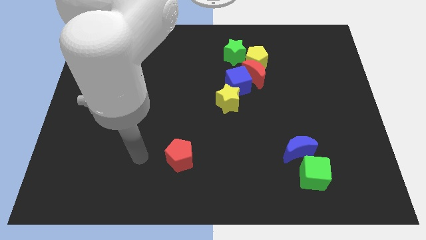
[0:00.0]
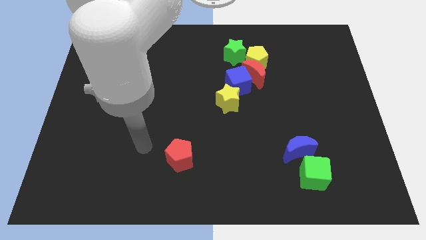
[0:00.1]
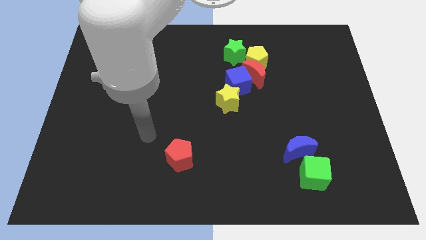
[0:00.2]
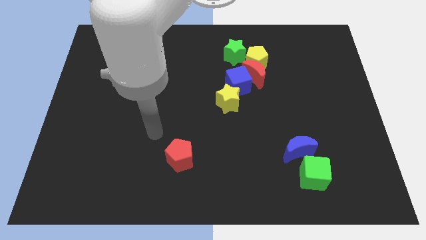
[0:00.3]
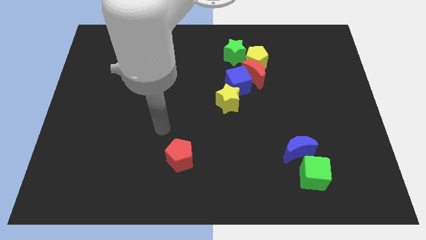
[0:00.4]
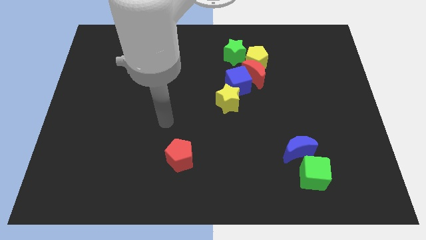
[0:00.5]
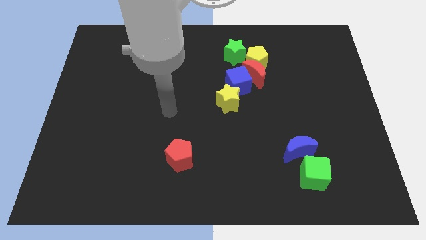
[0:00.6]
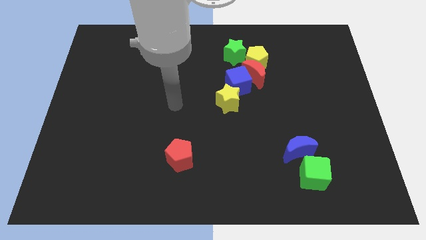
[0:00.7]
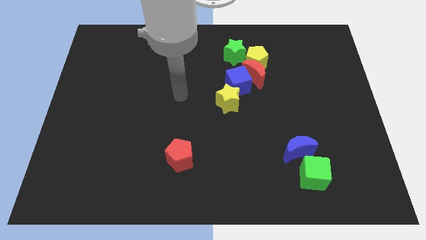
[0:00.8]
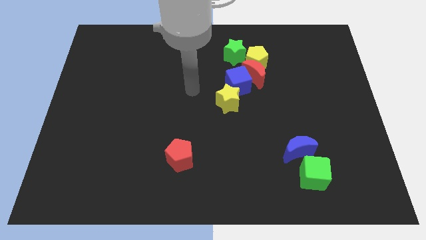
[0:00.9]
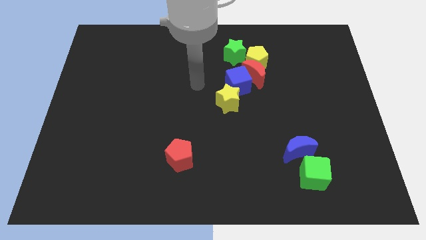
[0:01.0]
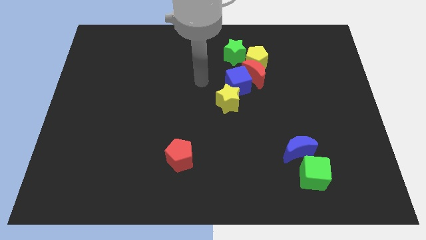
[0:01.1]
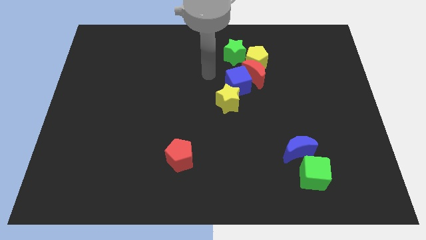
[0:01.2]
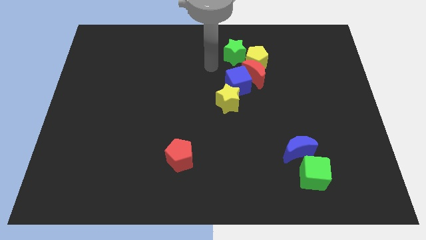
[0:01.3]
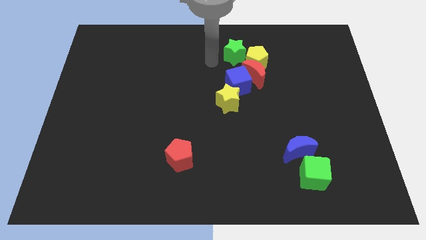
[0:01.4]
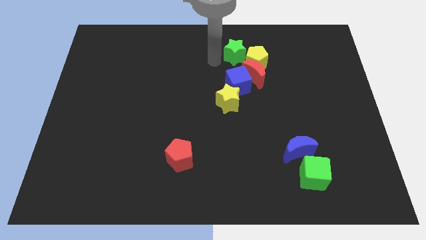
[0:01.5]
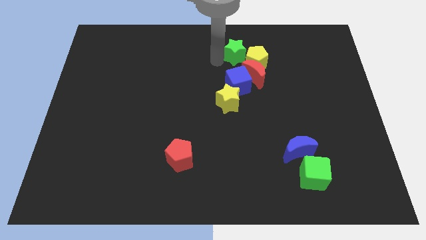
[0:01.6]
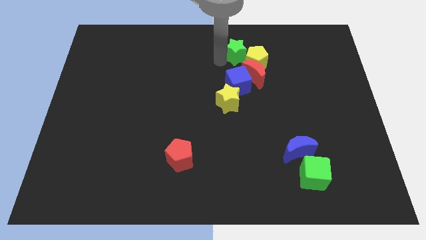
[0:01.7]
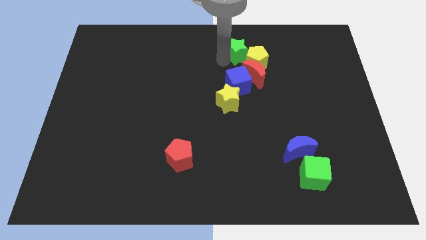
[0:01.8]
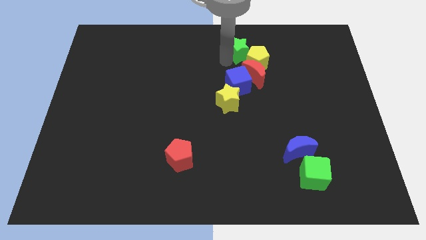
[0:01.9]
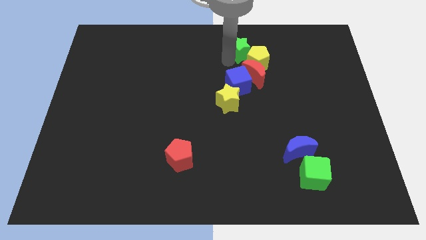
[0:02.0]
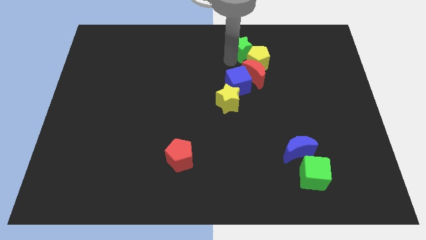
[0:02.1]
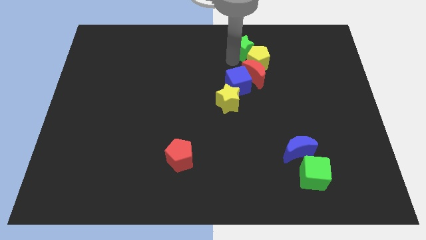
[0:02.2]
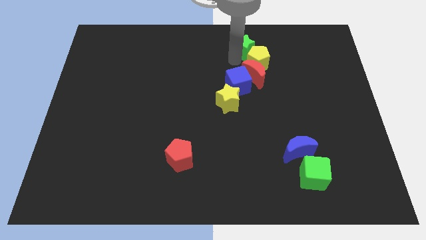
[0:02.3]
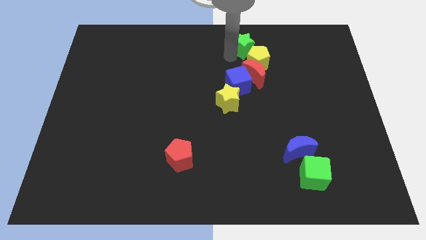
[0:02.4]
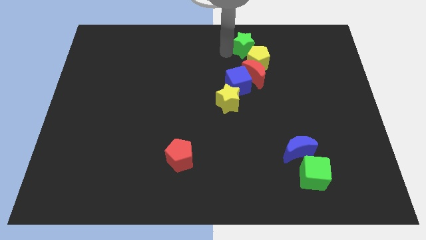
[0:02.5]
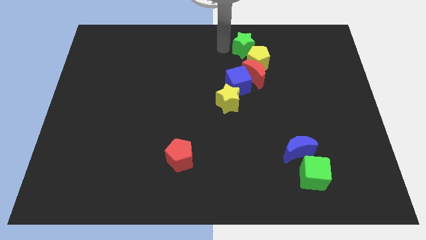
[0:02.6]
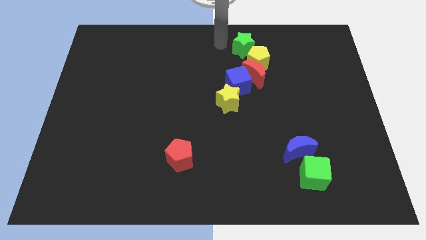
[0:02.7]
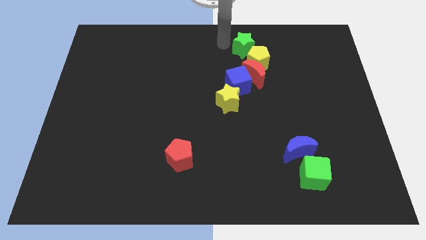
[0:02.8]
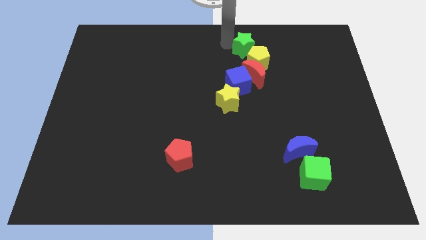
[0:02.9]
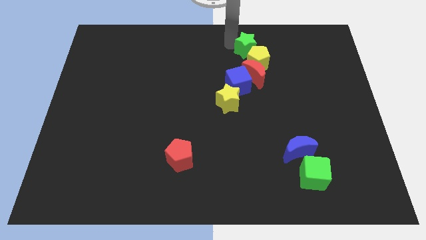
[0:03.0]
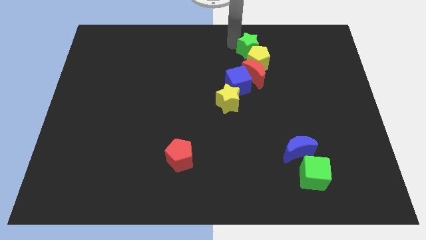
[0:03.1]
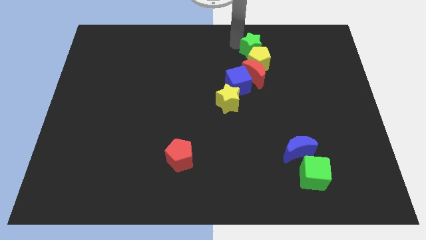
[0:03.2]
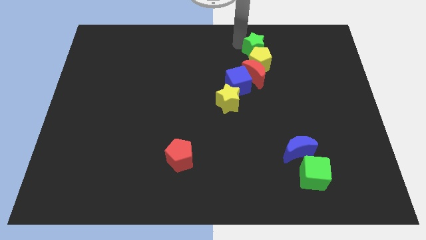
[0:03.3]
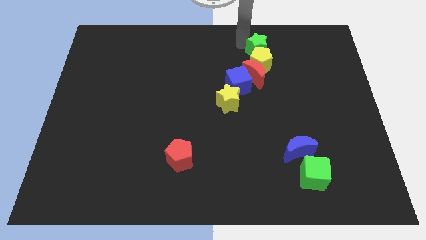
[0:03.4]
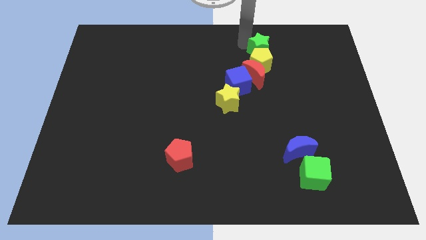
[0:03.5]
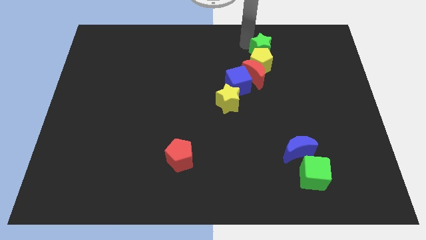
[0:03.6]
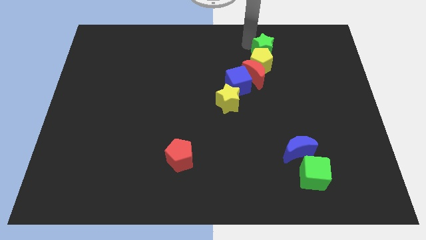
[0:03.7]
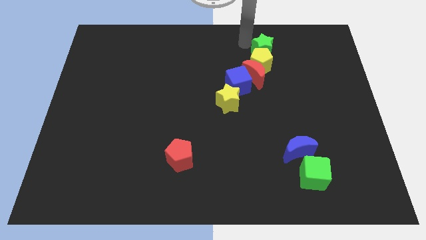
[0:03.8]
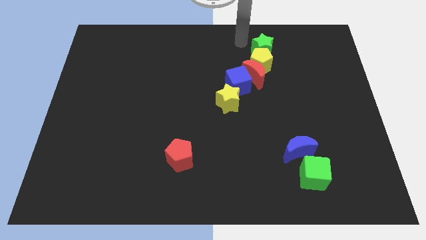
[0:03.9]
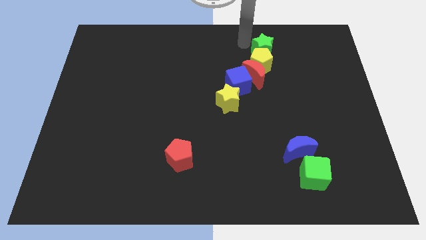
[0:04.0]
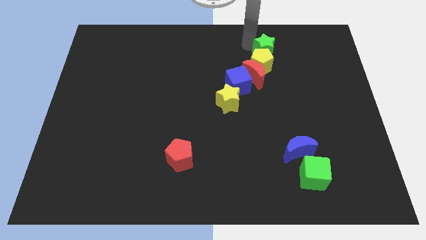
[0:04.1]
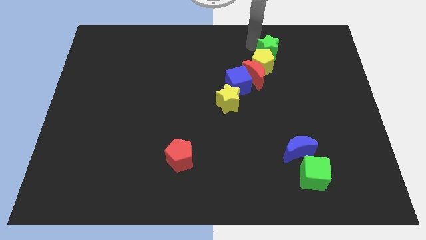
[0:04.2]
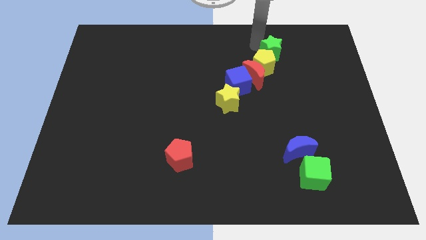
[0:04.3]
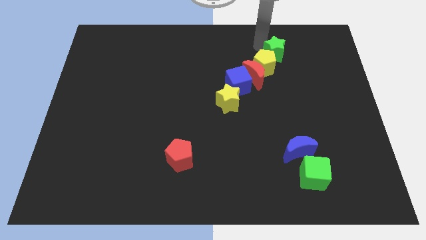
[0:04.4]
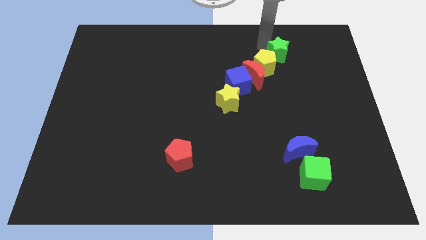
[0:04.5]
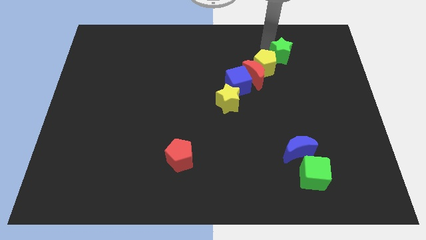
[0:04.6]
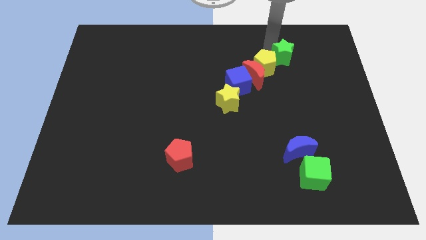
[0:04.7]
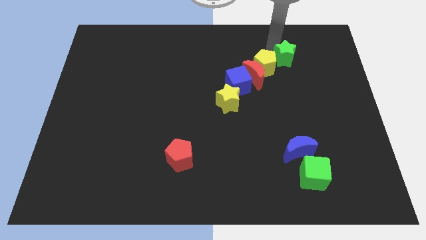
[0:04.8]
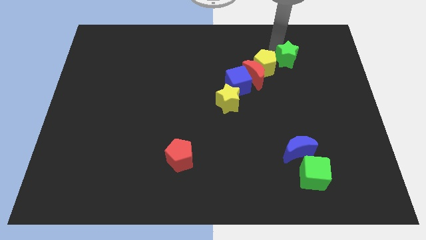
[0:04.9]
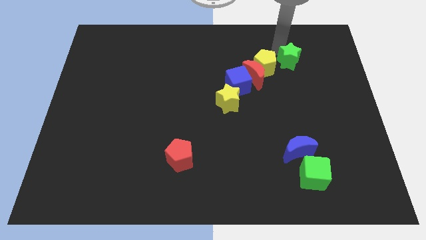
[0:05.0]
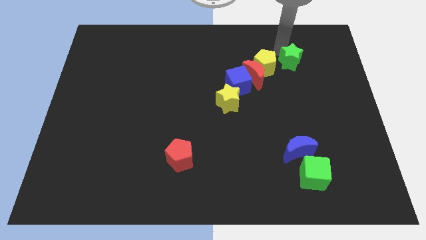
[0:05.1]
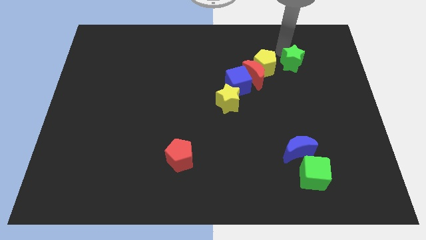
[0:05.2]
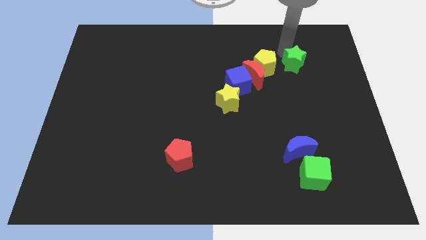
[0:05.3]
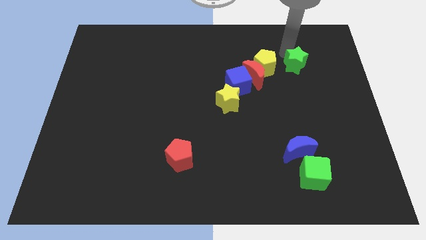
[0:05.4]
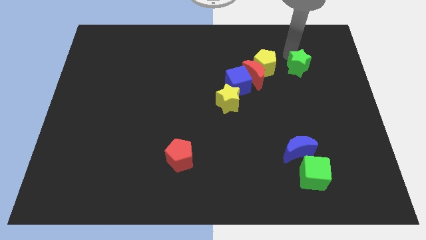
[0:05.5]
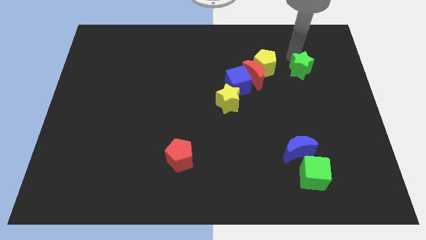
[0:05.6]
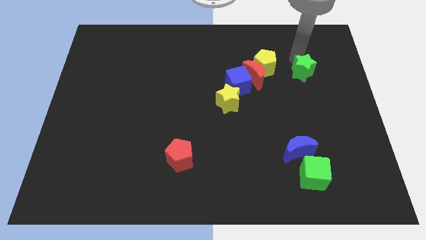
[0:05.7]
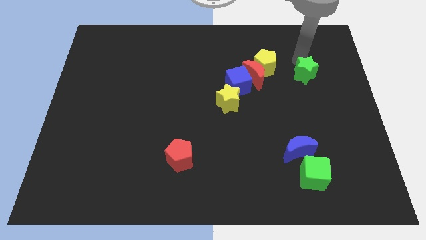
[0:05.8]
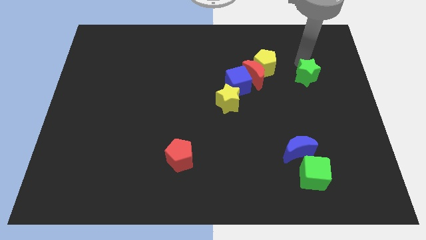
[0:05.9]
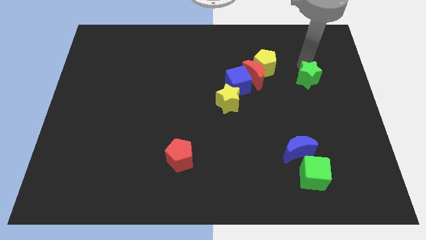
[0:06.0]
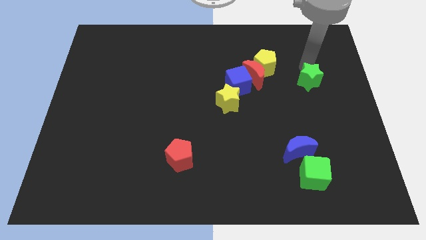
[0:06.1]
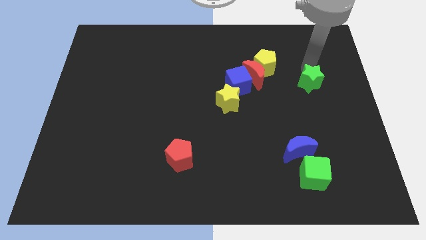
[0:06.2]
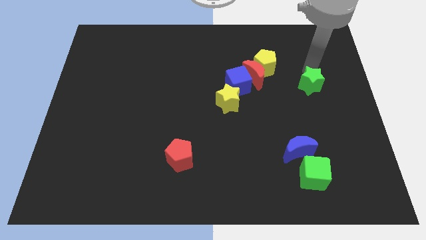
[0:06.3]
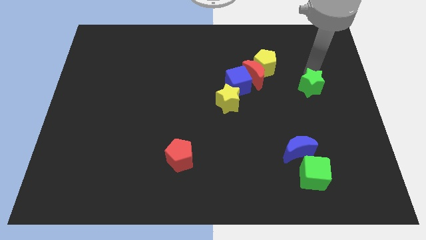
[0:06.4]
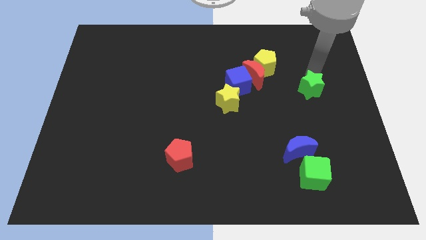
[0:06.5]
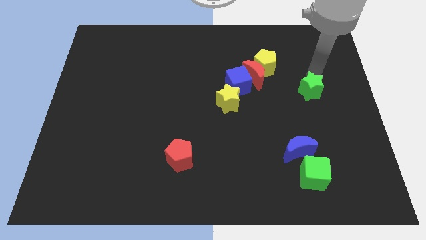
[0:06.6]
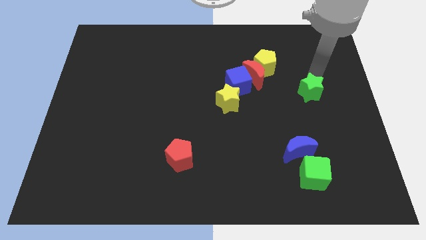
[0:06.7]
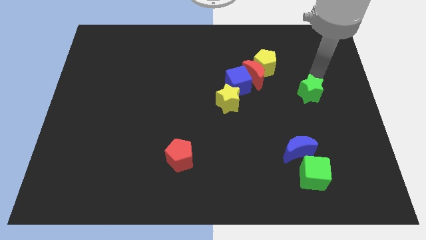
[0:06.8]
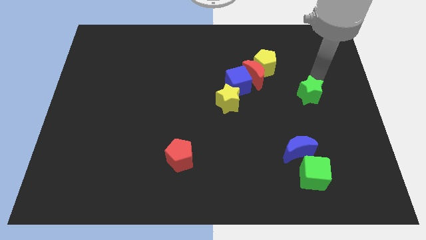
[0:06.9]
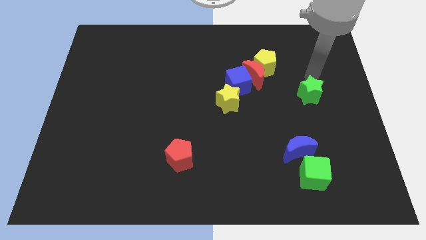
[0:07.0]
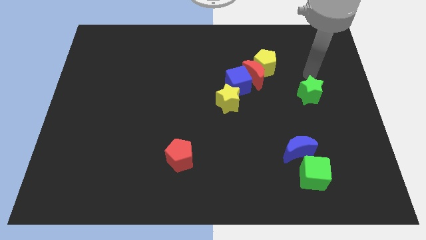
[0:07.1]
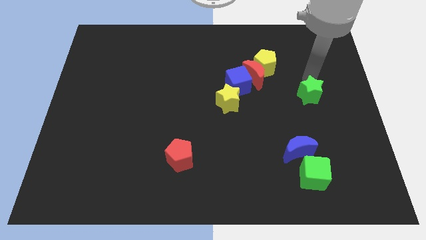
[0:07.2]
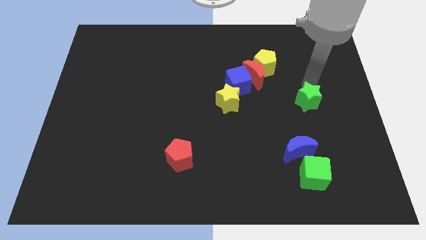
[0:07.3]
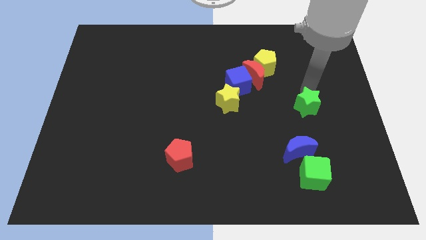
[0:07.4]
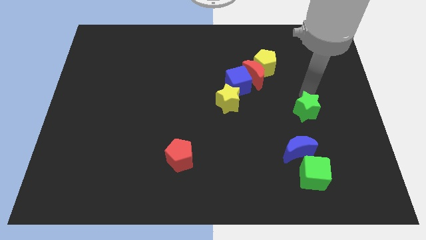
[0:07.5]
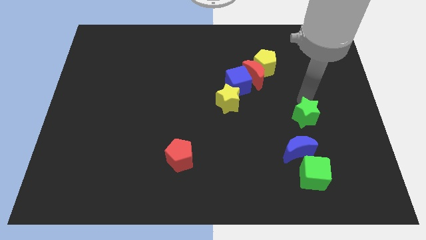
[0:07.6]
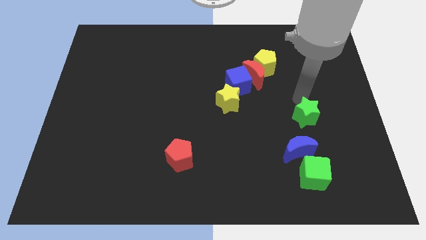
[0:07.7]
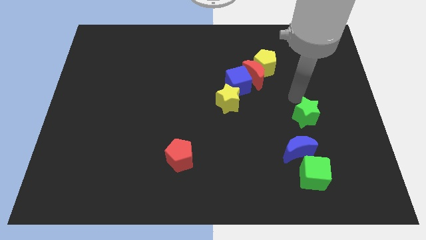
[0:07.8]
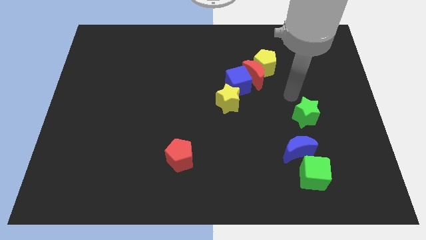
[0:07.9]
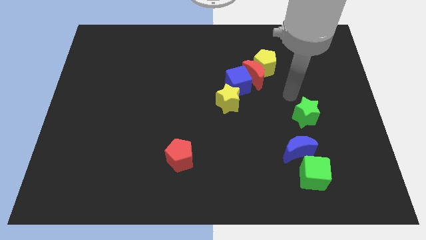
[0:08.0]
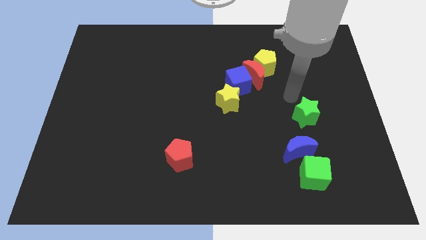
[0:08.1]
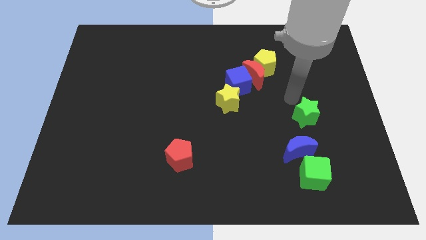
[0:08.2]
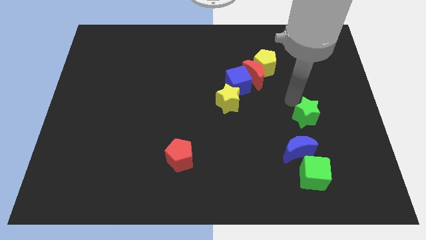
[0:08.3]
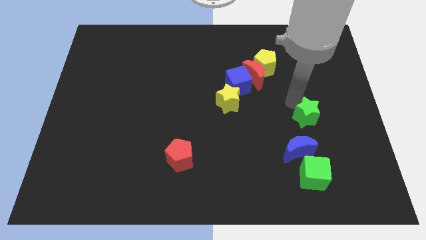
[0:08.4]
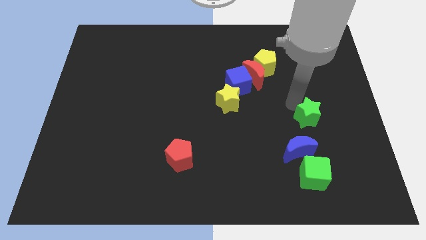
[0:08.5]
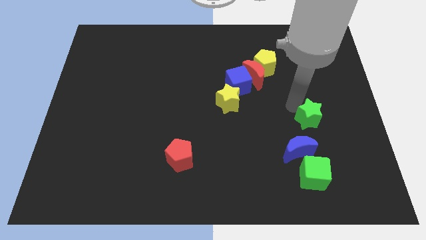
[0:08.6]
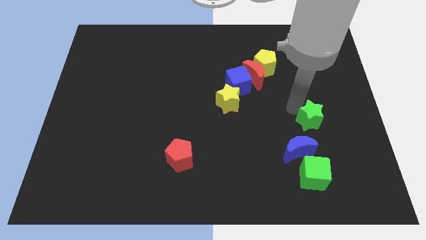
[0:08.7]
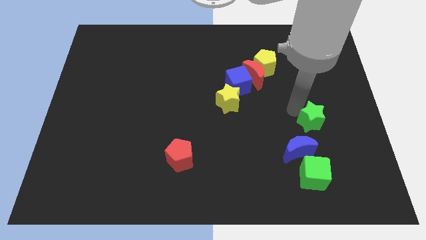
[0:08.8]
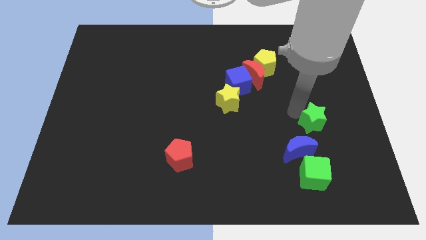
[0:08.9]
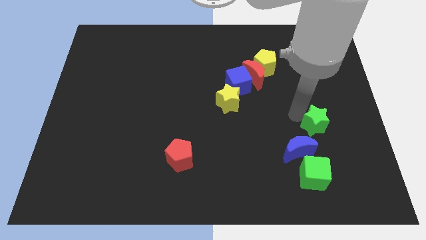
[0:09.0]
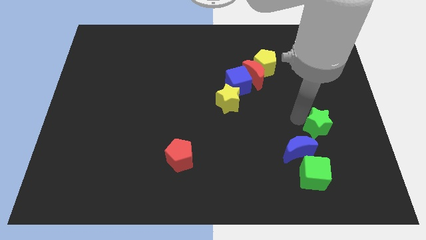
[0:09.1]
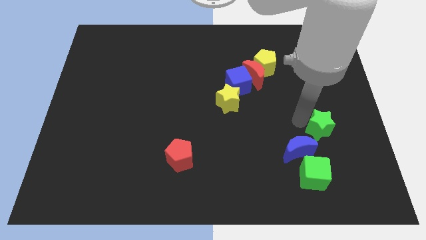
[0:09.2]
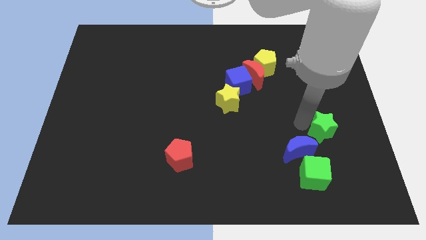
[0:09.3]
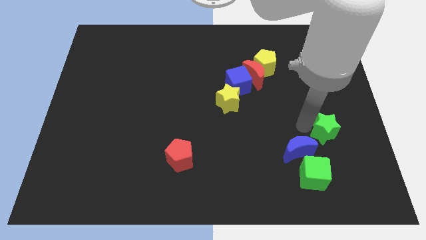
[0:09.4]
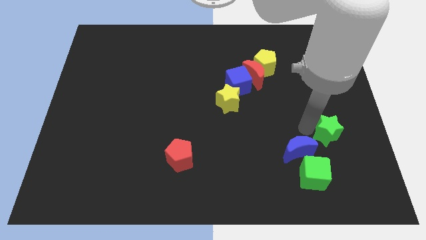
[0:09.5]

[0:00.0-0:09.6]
slide the green star to the top right of the green cube
